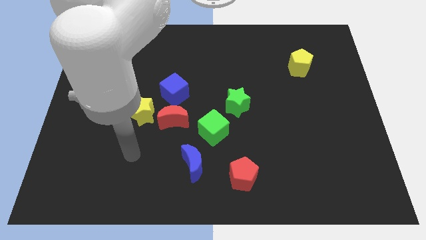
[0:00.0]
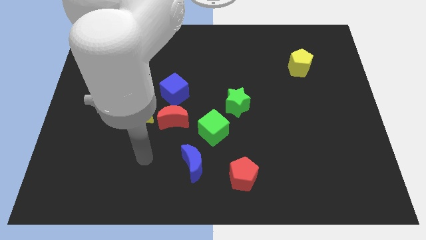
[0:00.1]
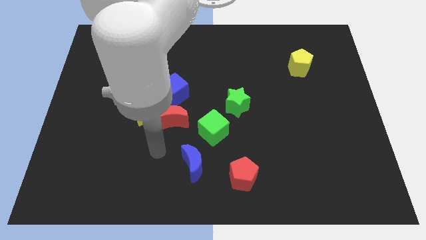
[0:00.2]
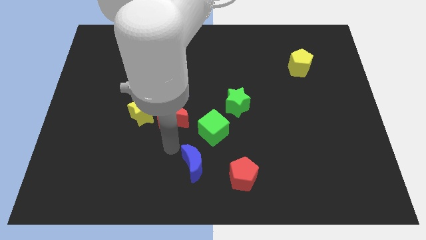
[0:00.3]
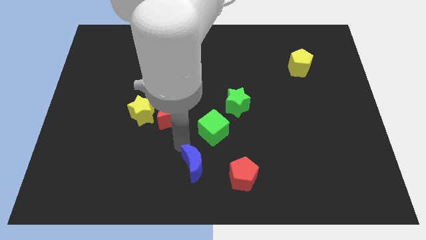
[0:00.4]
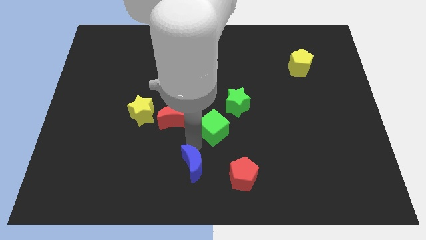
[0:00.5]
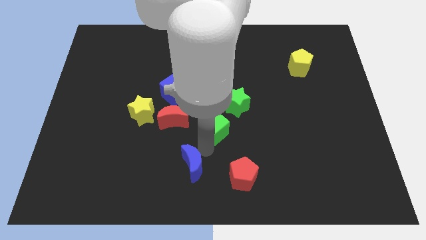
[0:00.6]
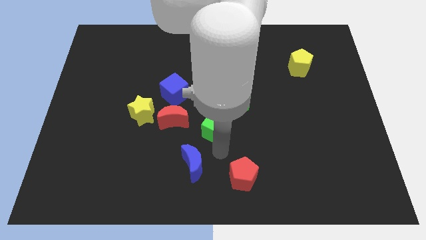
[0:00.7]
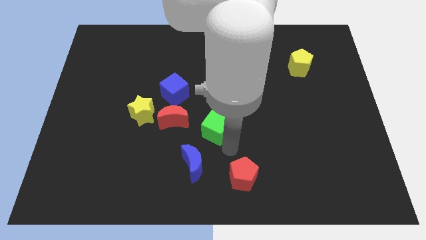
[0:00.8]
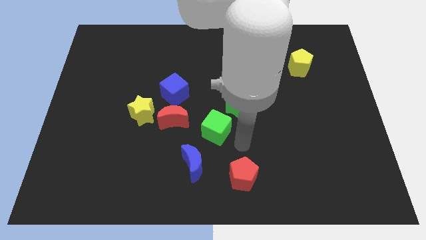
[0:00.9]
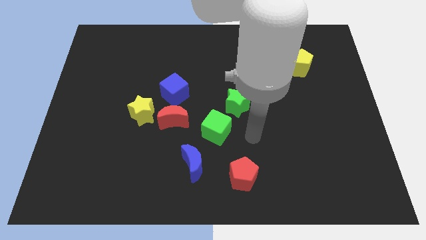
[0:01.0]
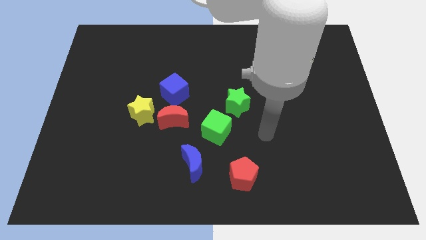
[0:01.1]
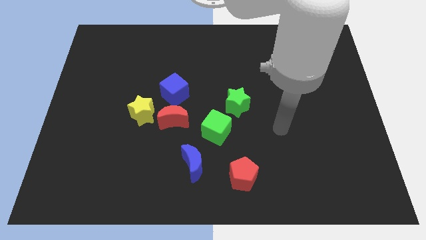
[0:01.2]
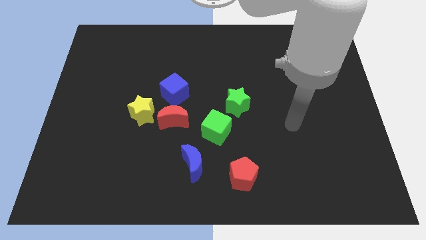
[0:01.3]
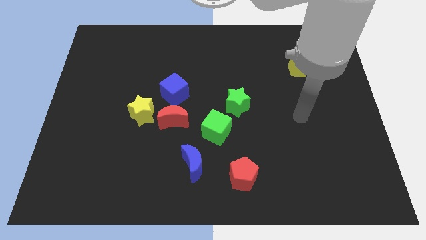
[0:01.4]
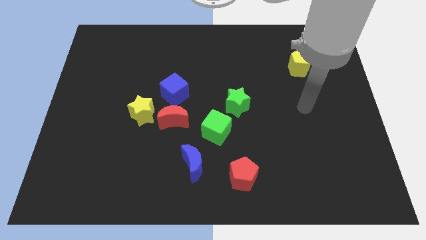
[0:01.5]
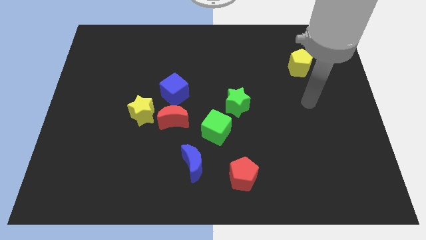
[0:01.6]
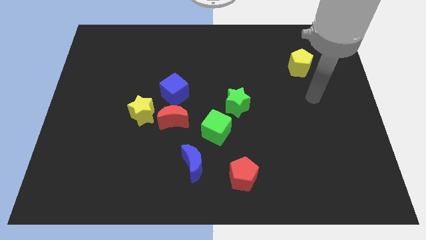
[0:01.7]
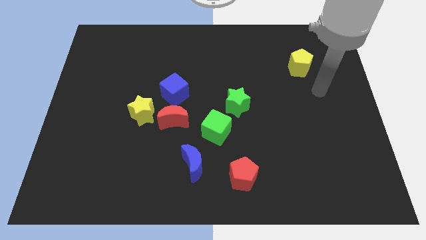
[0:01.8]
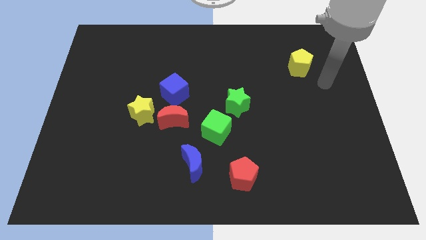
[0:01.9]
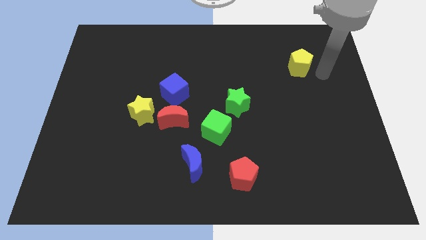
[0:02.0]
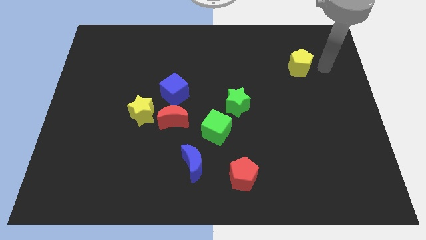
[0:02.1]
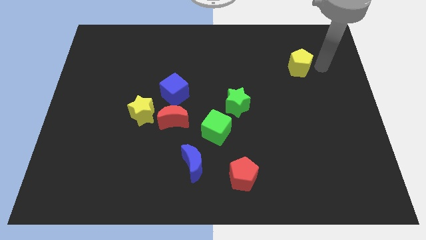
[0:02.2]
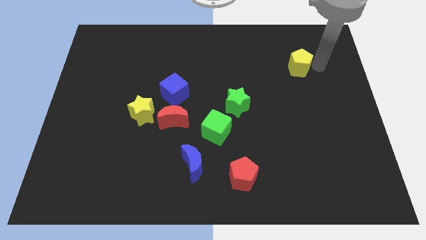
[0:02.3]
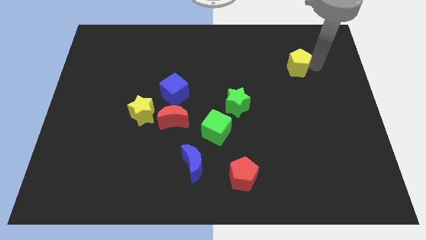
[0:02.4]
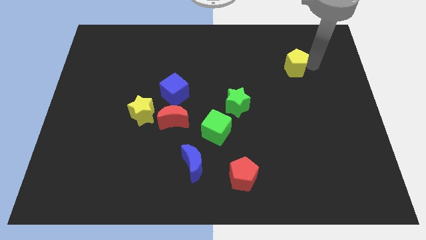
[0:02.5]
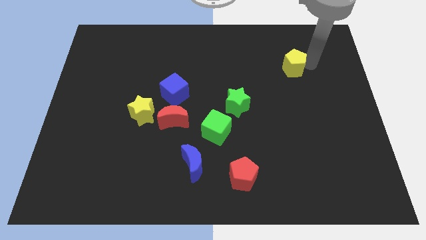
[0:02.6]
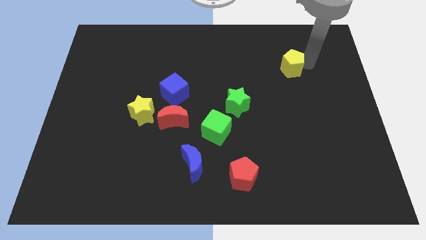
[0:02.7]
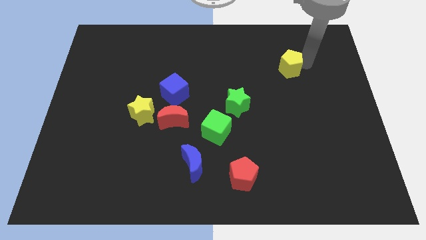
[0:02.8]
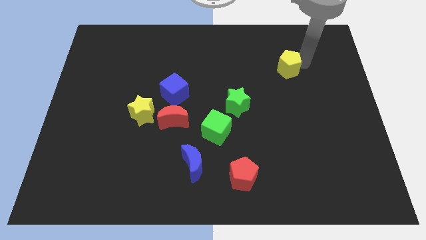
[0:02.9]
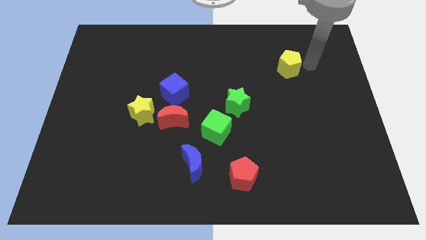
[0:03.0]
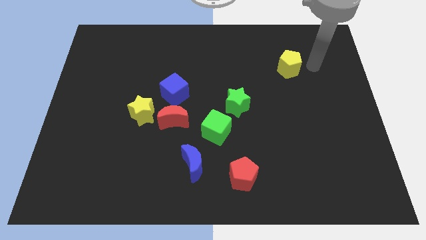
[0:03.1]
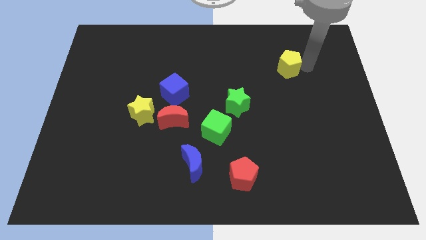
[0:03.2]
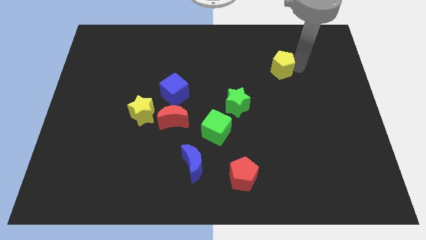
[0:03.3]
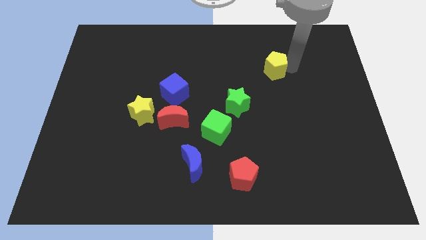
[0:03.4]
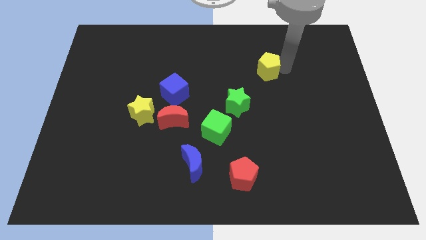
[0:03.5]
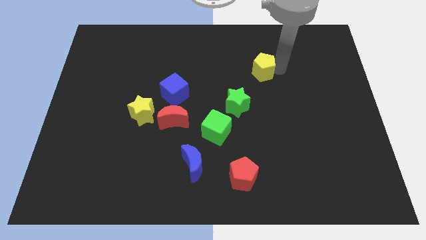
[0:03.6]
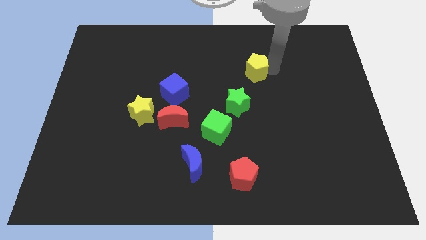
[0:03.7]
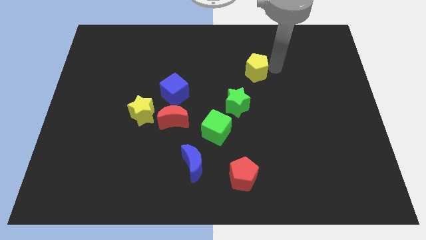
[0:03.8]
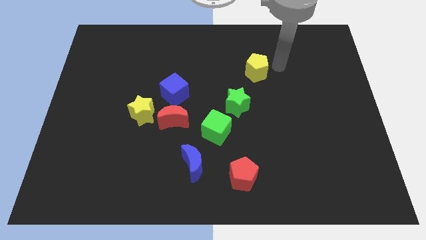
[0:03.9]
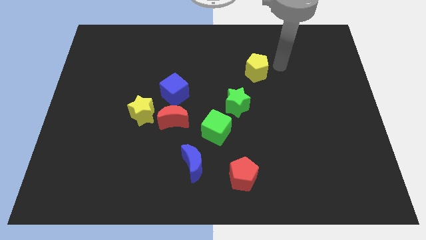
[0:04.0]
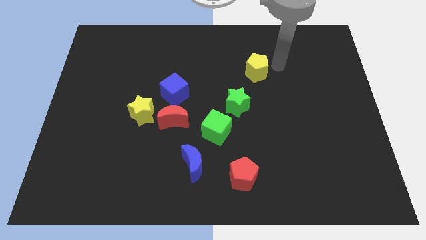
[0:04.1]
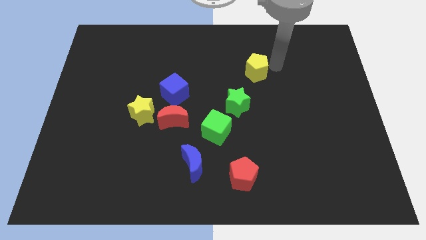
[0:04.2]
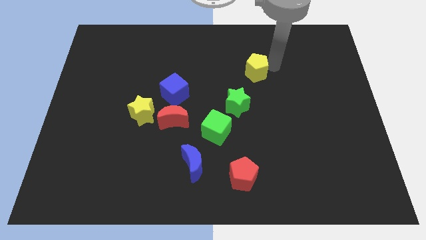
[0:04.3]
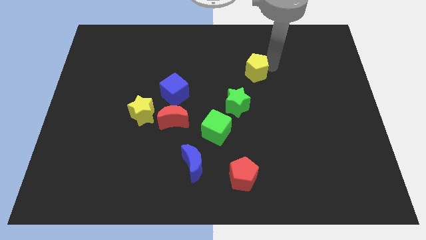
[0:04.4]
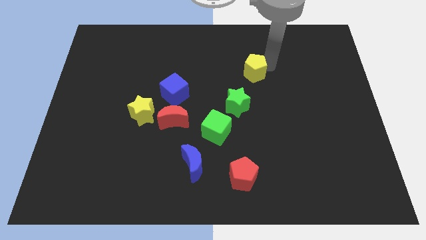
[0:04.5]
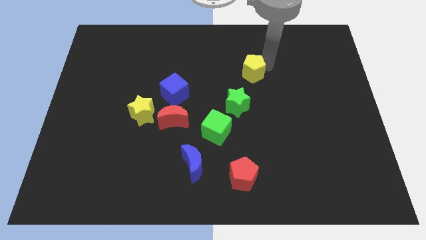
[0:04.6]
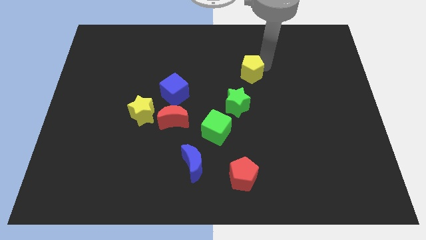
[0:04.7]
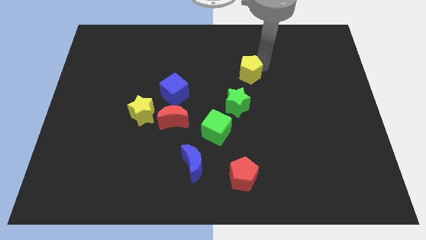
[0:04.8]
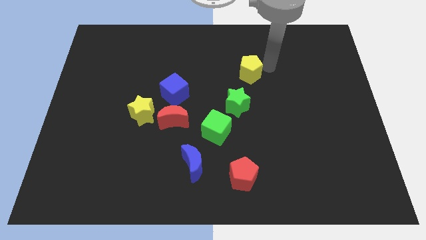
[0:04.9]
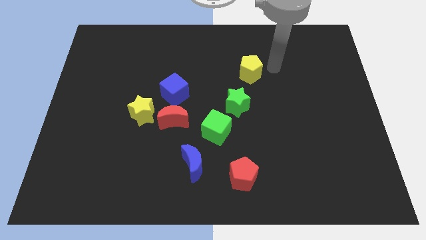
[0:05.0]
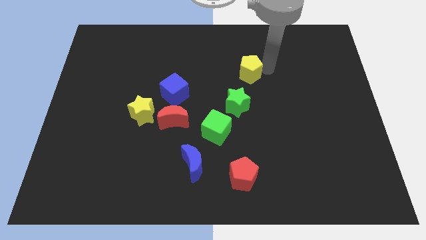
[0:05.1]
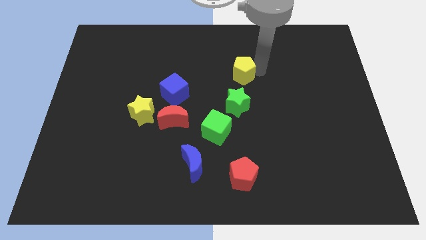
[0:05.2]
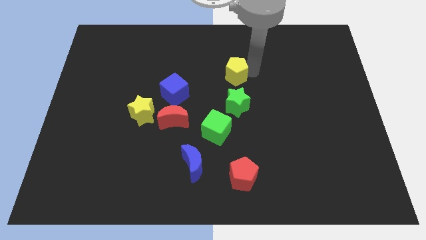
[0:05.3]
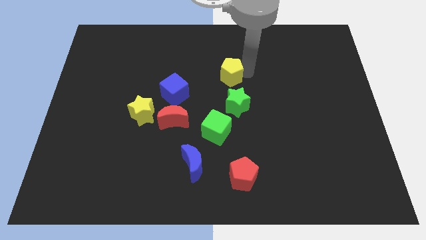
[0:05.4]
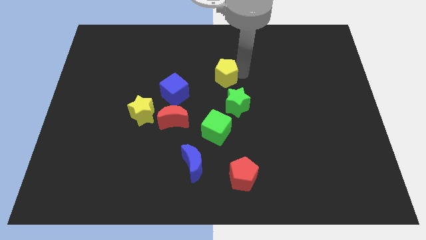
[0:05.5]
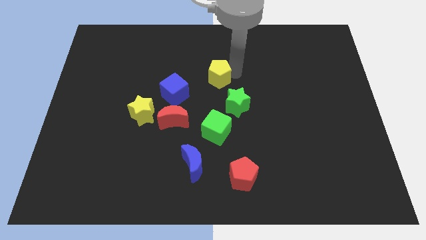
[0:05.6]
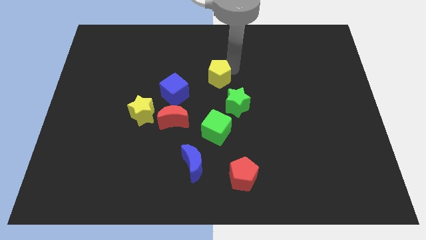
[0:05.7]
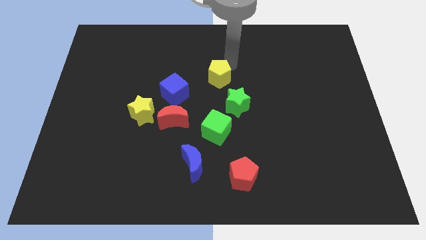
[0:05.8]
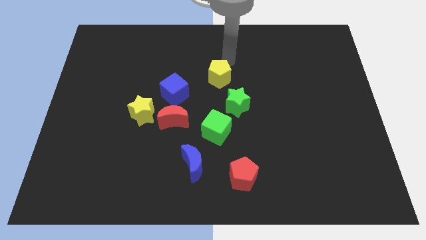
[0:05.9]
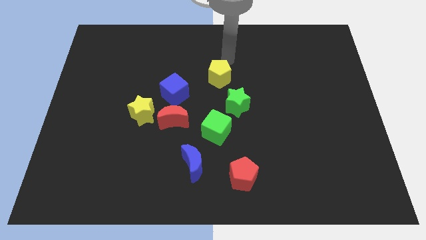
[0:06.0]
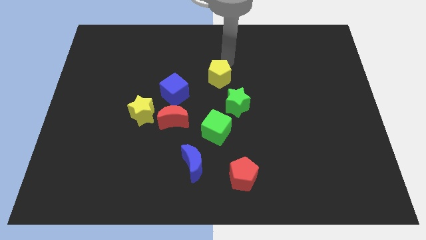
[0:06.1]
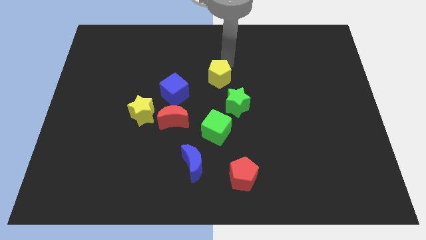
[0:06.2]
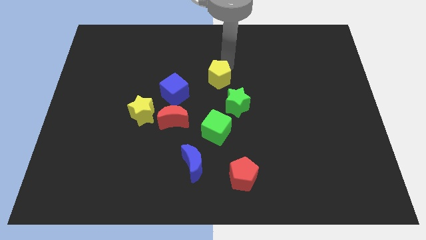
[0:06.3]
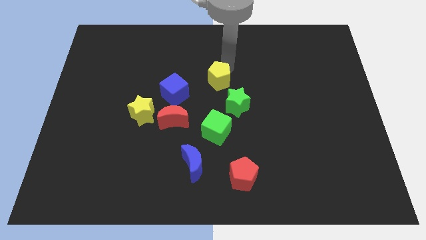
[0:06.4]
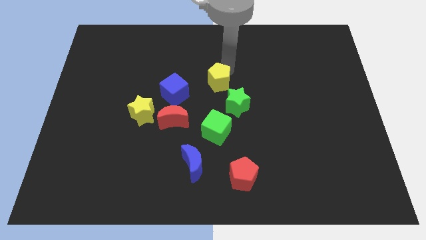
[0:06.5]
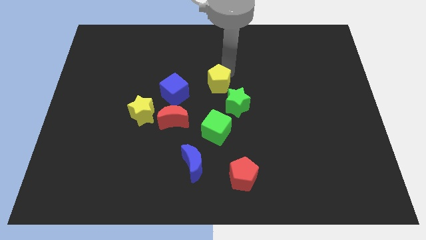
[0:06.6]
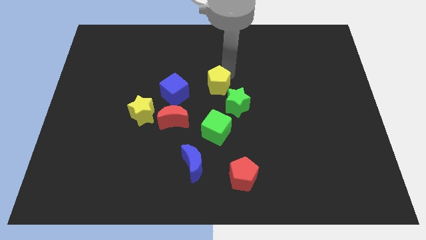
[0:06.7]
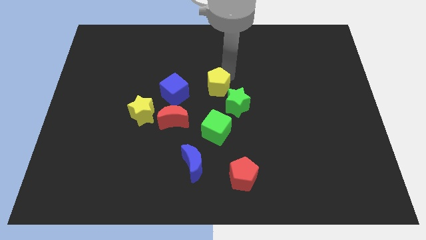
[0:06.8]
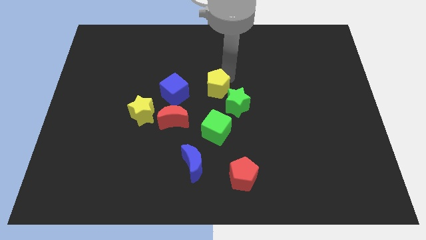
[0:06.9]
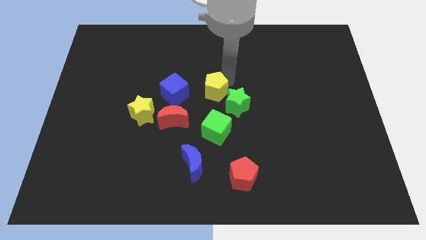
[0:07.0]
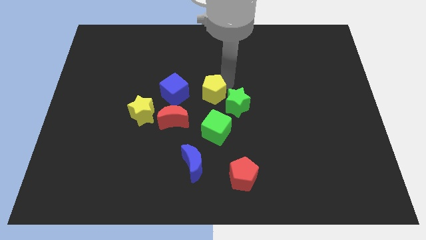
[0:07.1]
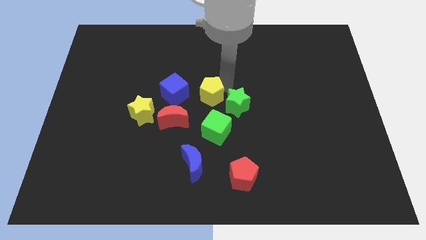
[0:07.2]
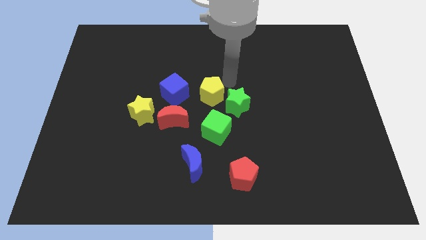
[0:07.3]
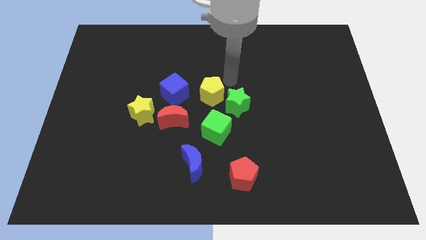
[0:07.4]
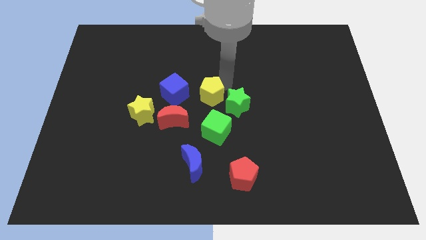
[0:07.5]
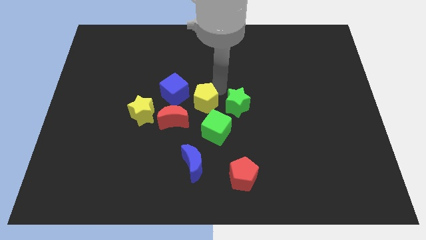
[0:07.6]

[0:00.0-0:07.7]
slide the yellow pentagon to the right side of the yellow star
